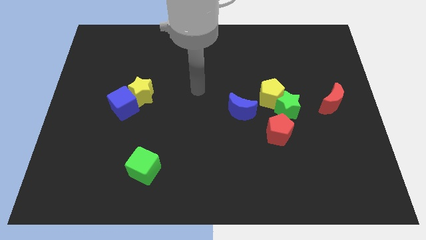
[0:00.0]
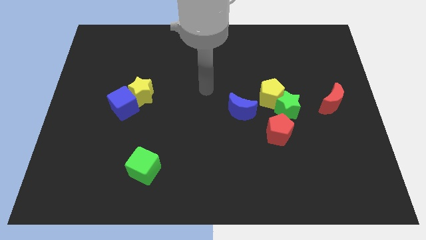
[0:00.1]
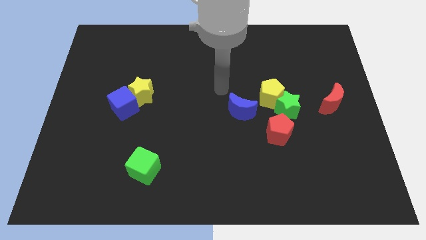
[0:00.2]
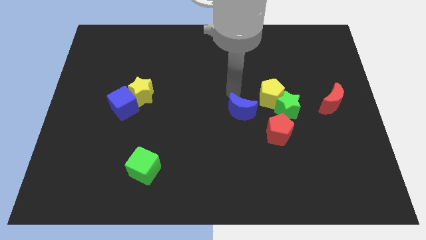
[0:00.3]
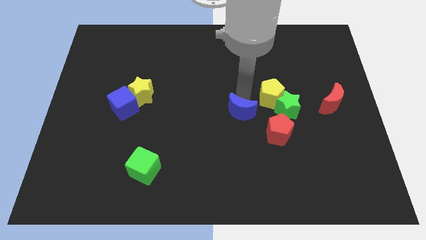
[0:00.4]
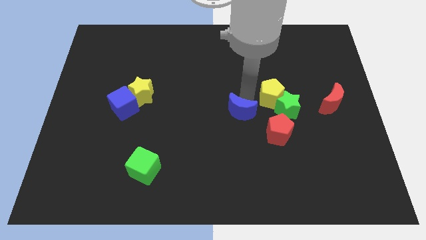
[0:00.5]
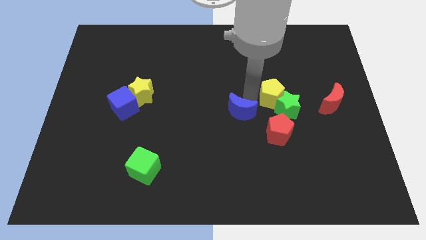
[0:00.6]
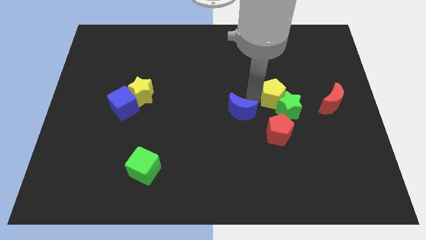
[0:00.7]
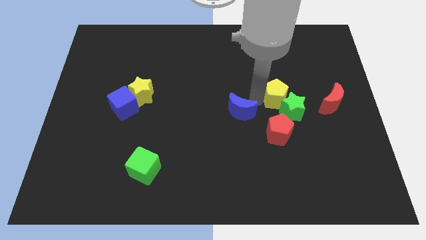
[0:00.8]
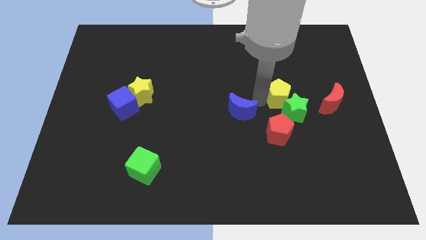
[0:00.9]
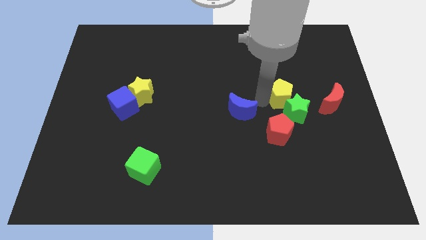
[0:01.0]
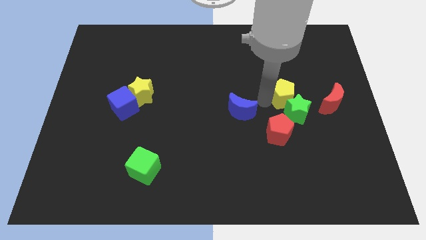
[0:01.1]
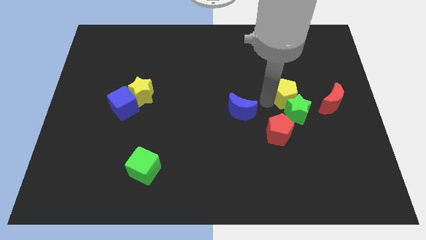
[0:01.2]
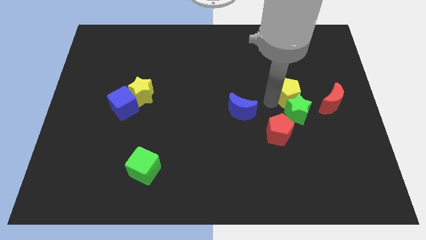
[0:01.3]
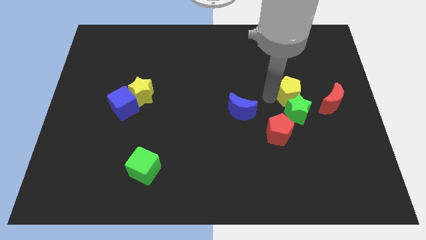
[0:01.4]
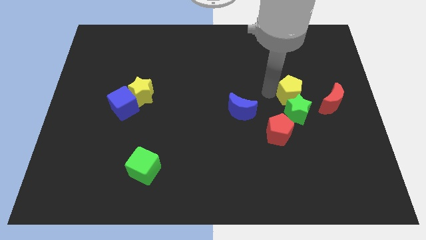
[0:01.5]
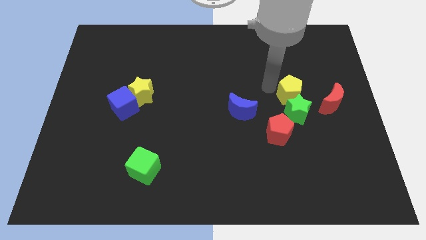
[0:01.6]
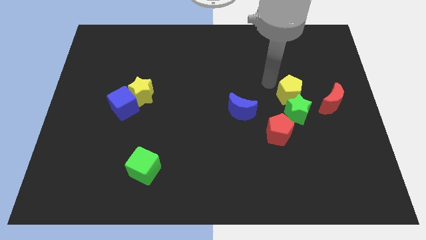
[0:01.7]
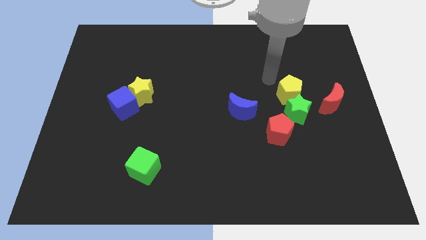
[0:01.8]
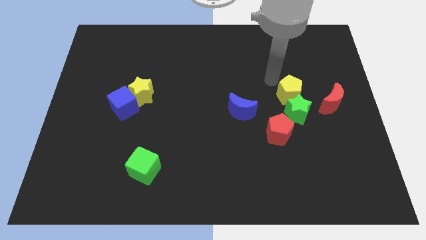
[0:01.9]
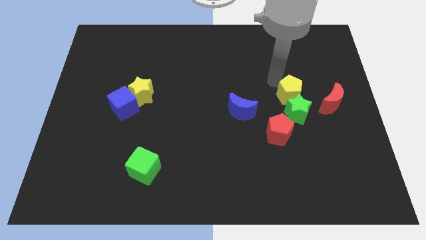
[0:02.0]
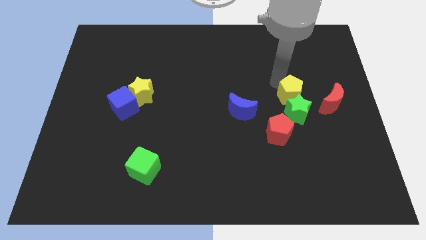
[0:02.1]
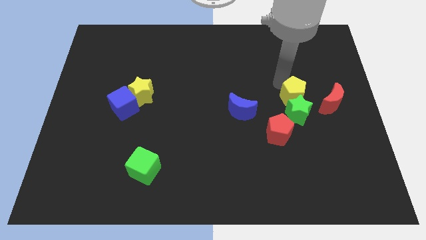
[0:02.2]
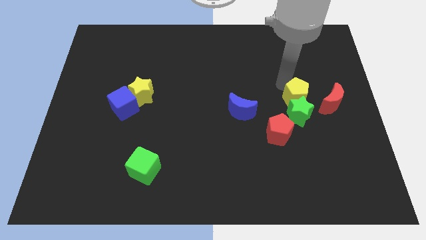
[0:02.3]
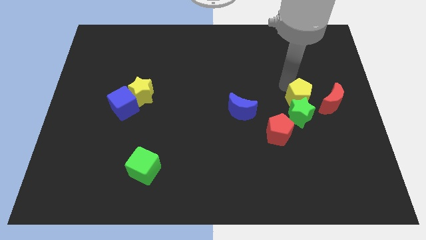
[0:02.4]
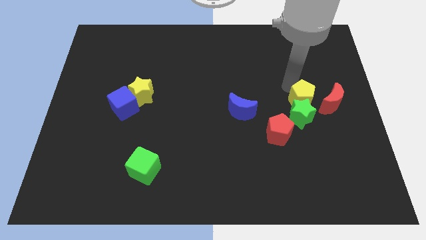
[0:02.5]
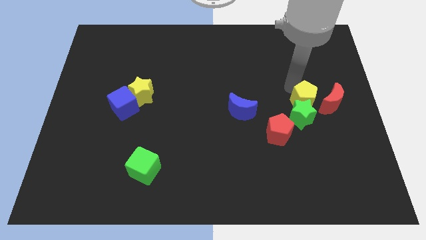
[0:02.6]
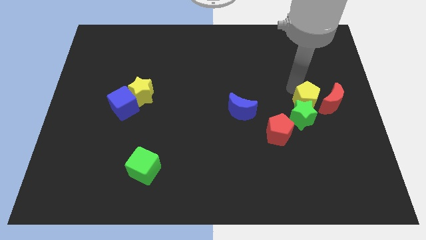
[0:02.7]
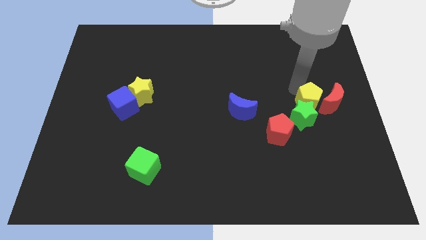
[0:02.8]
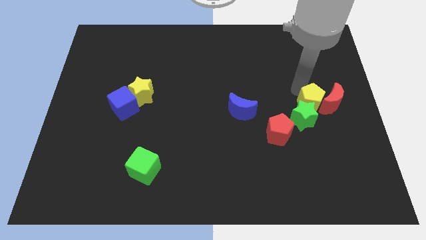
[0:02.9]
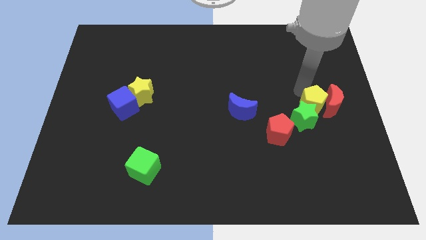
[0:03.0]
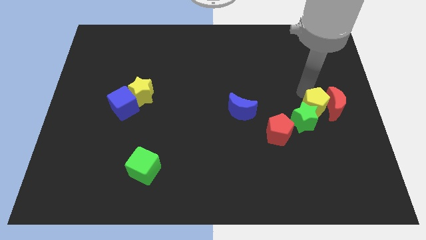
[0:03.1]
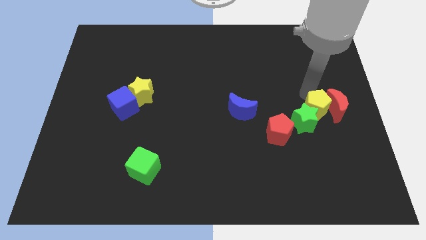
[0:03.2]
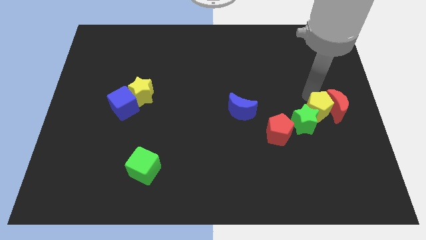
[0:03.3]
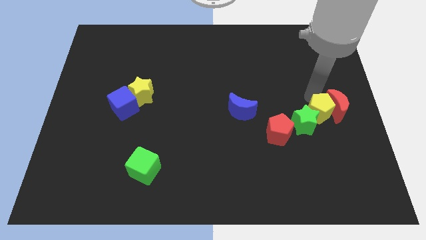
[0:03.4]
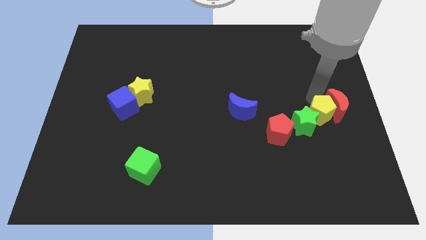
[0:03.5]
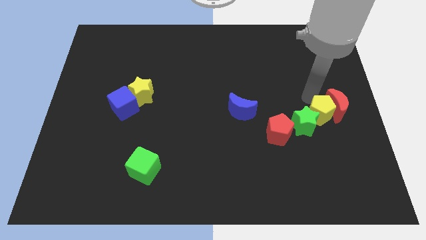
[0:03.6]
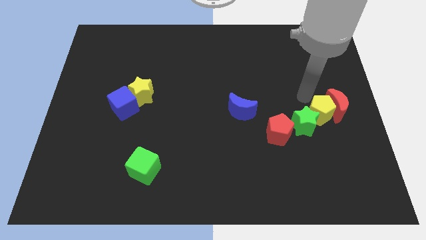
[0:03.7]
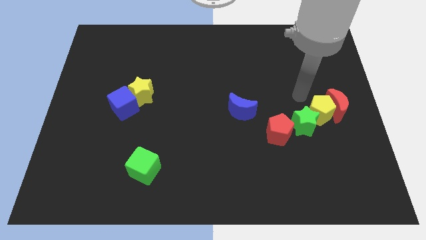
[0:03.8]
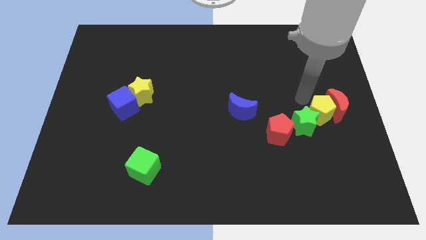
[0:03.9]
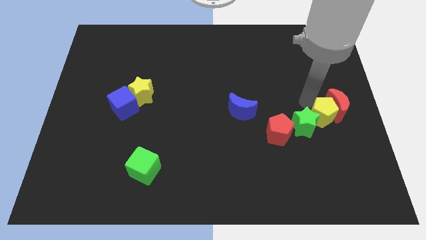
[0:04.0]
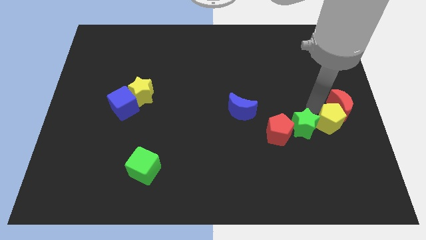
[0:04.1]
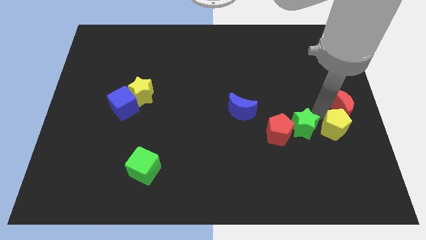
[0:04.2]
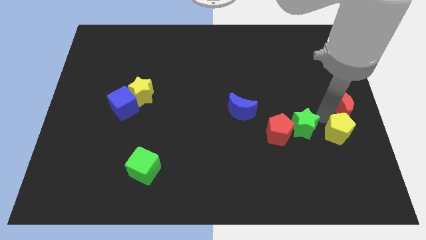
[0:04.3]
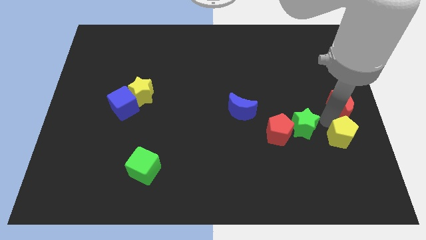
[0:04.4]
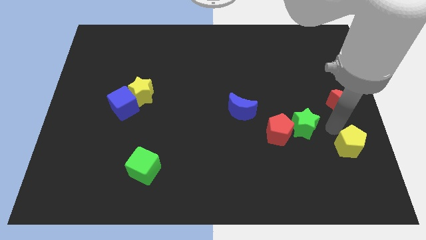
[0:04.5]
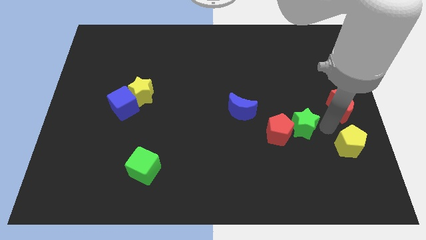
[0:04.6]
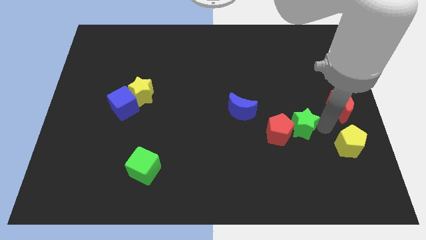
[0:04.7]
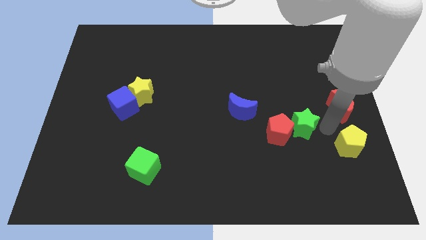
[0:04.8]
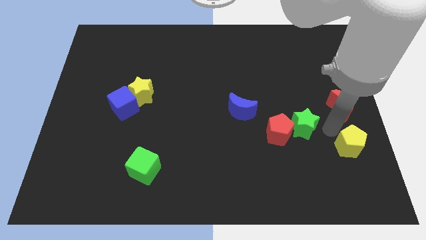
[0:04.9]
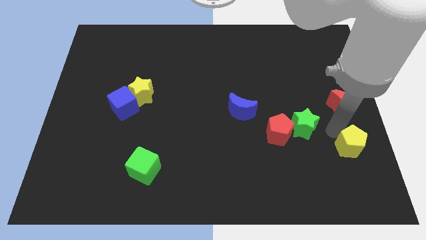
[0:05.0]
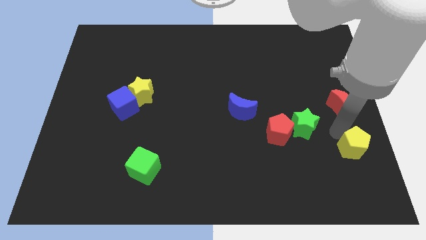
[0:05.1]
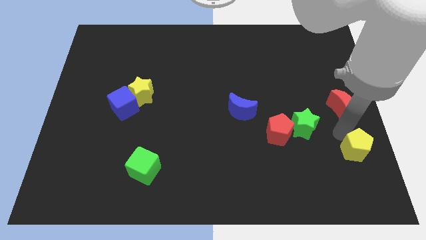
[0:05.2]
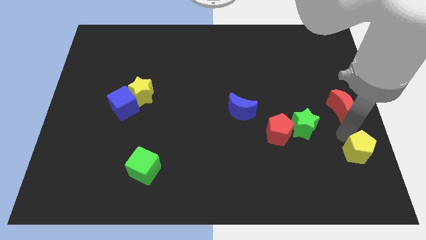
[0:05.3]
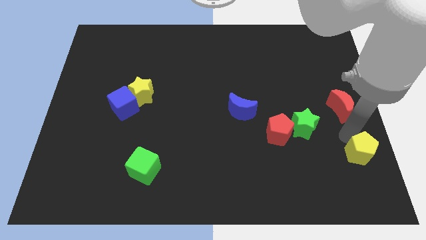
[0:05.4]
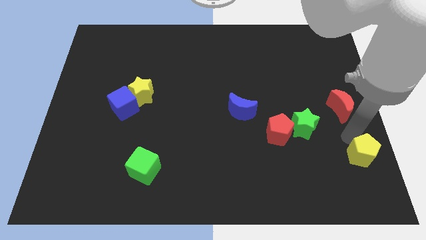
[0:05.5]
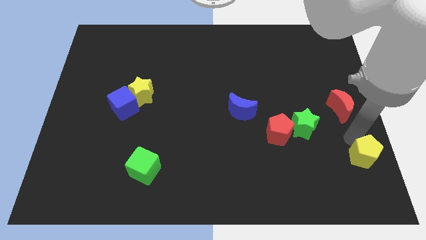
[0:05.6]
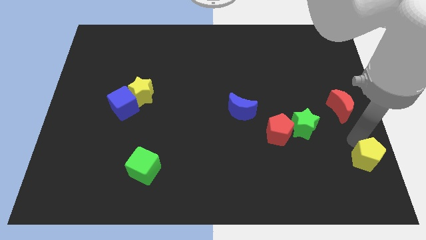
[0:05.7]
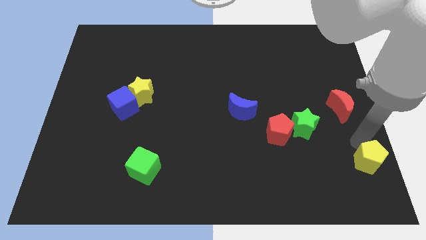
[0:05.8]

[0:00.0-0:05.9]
slide the yellow pentagon to the bottom right corner

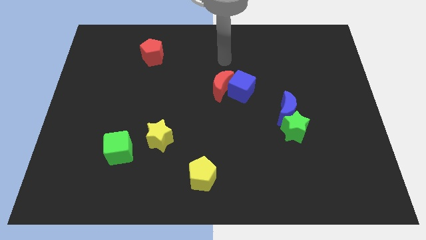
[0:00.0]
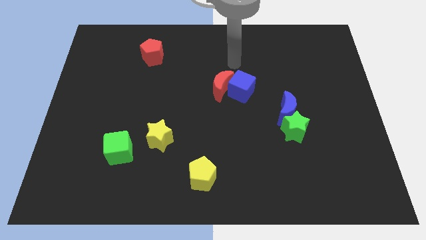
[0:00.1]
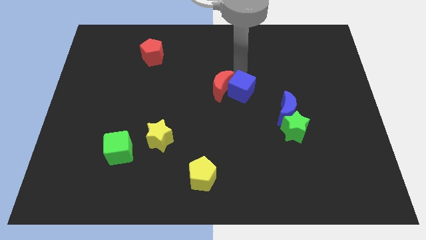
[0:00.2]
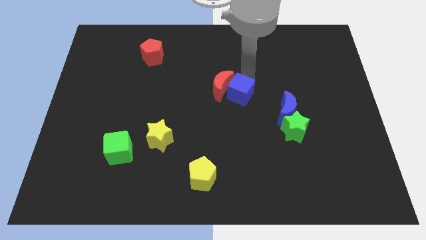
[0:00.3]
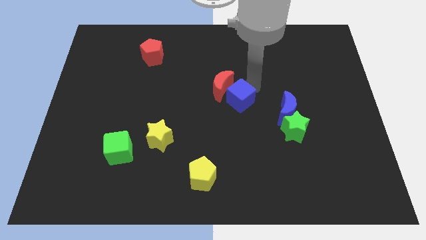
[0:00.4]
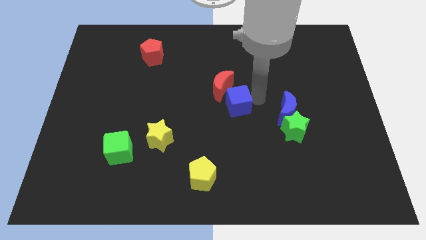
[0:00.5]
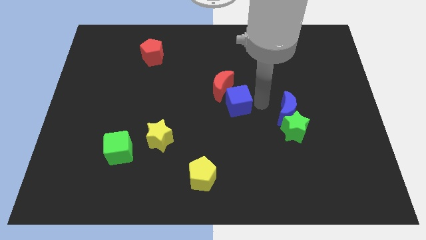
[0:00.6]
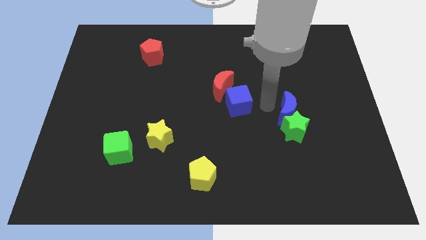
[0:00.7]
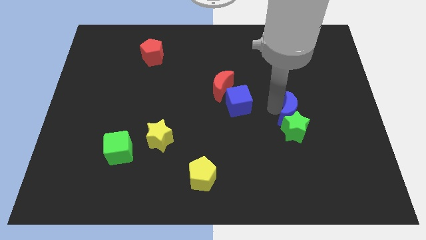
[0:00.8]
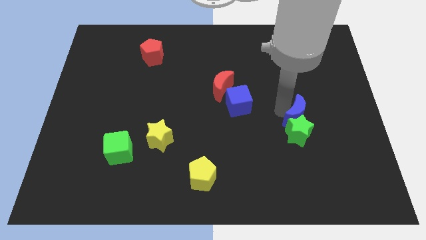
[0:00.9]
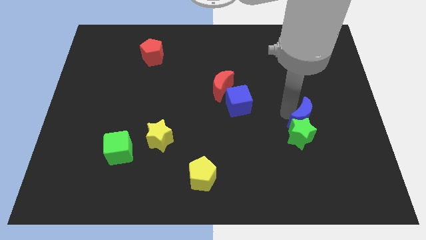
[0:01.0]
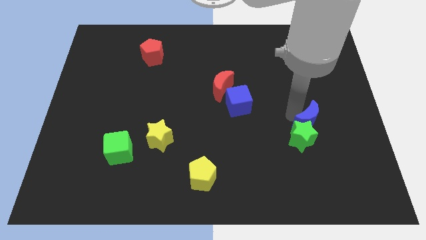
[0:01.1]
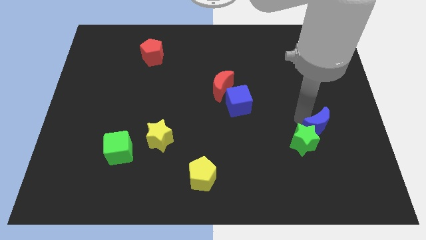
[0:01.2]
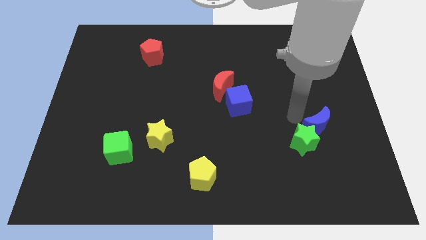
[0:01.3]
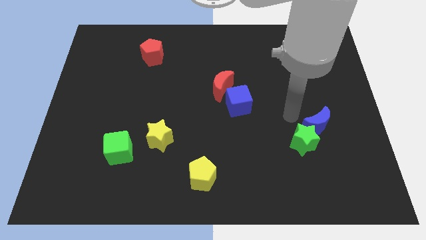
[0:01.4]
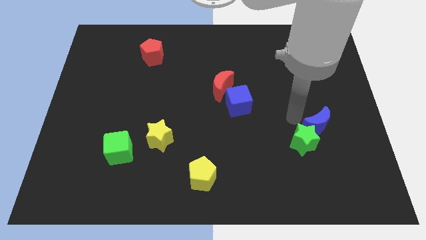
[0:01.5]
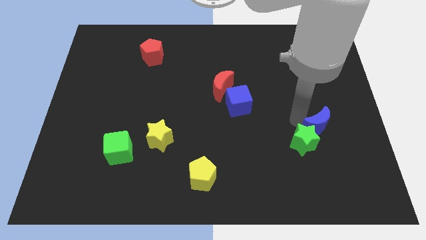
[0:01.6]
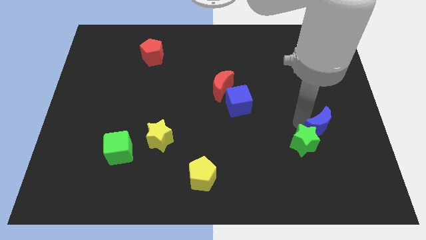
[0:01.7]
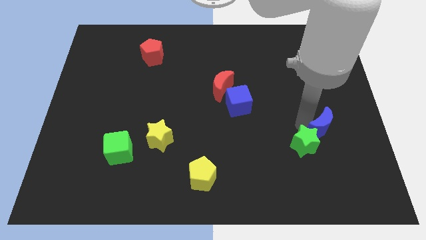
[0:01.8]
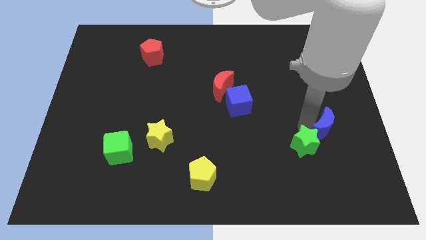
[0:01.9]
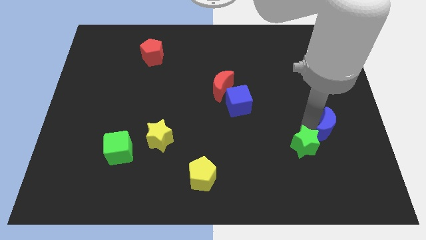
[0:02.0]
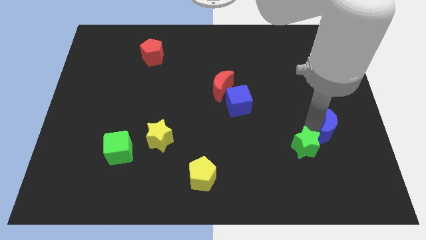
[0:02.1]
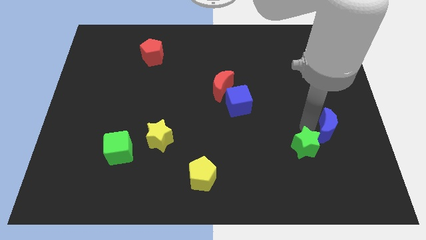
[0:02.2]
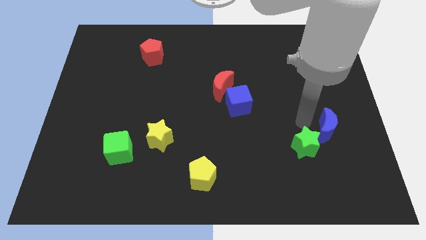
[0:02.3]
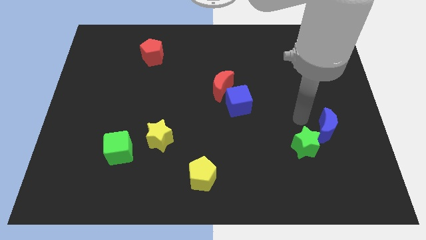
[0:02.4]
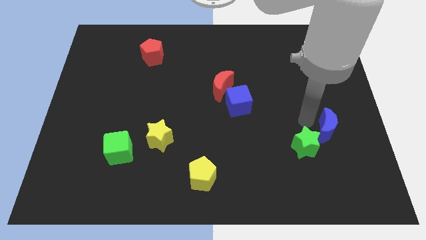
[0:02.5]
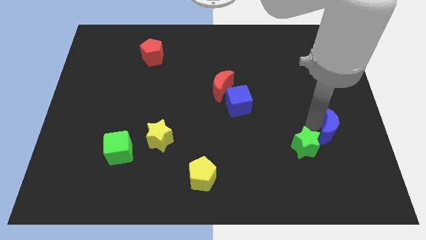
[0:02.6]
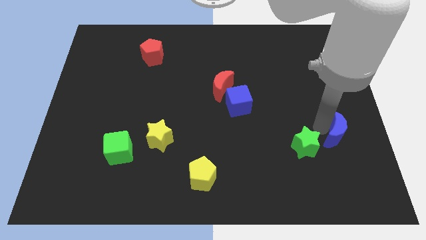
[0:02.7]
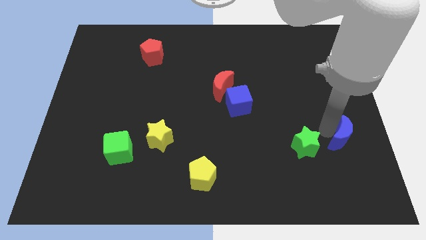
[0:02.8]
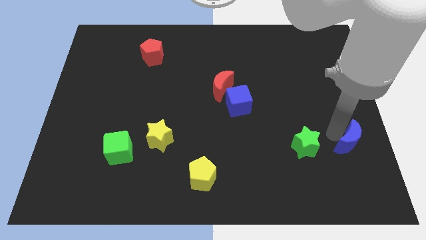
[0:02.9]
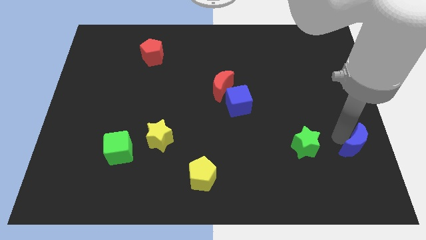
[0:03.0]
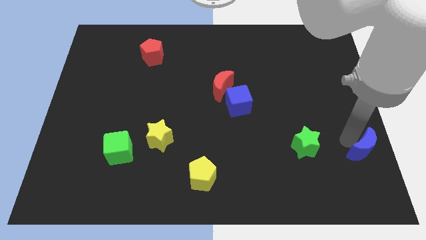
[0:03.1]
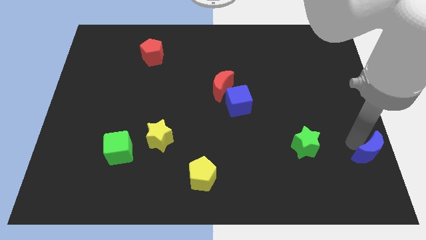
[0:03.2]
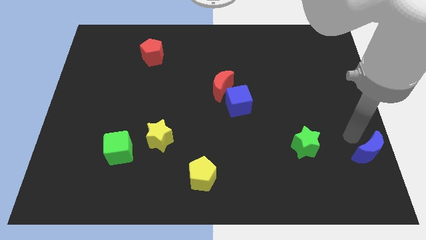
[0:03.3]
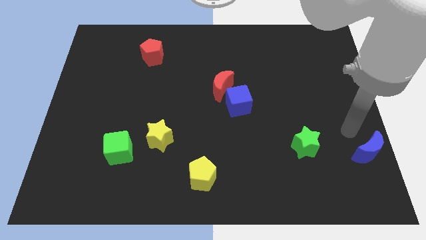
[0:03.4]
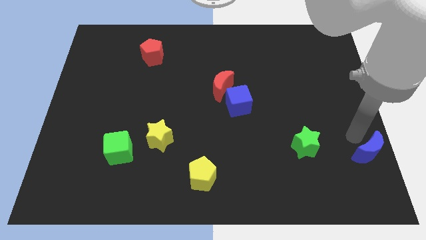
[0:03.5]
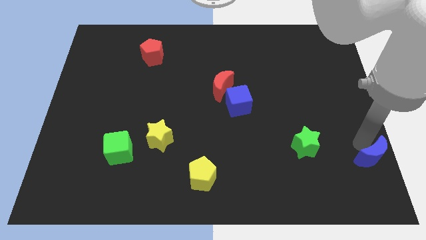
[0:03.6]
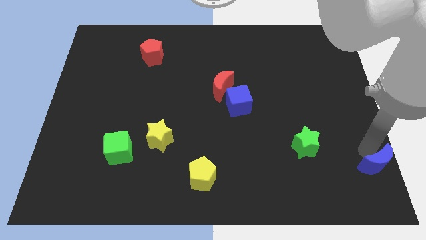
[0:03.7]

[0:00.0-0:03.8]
put the blue moon to the bottom right
